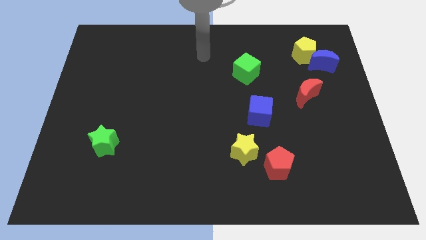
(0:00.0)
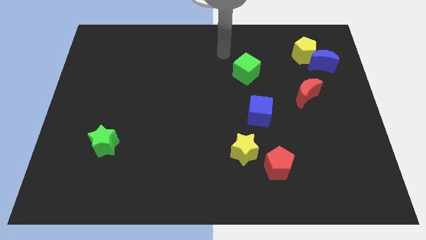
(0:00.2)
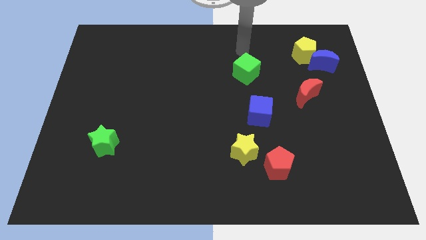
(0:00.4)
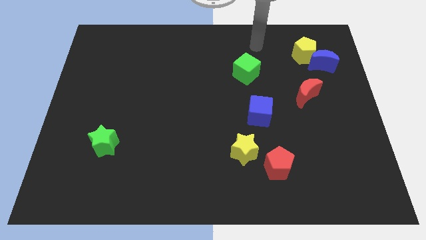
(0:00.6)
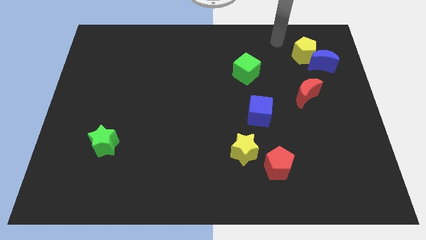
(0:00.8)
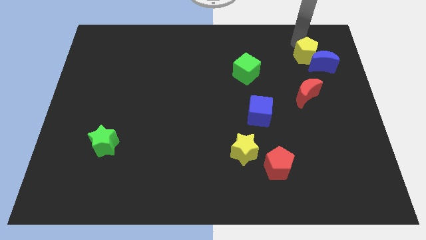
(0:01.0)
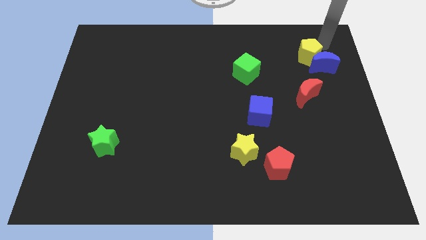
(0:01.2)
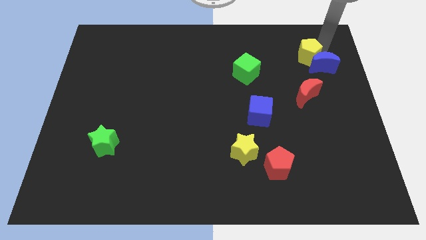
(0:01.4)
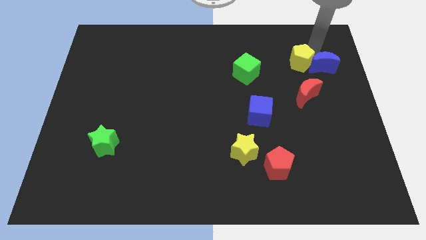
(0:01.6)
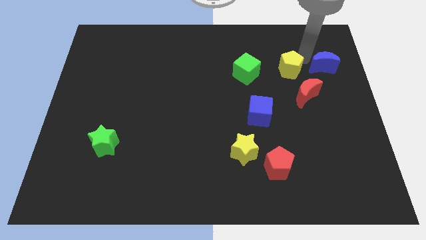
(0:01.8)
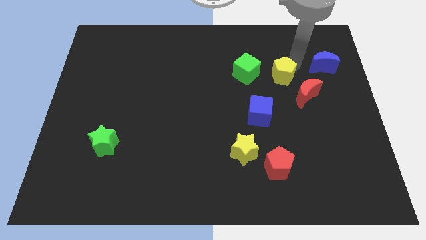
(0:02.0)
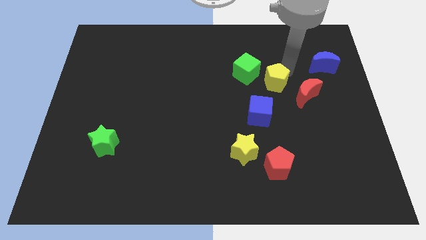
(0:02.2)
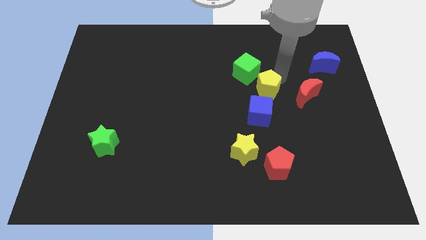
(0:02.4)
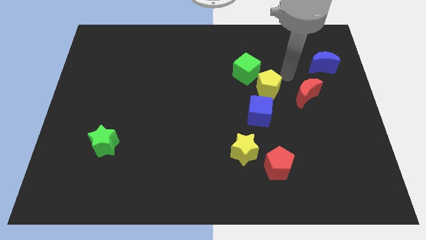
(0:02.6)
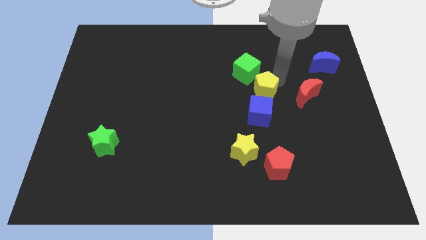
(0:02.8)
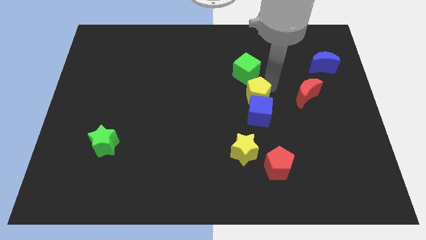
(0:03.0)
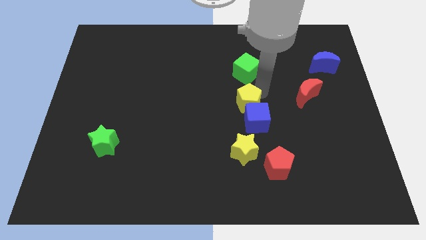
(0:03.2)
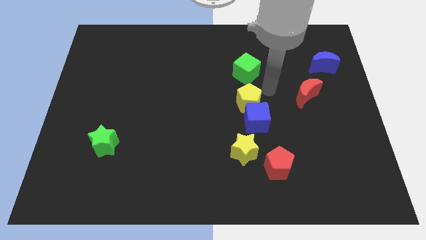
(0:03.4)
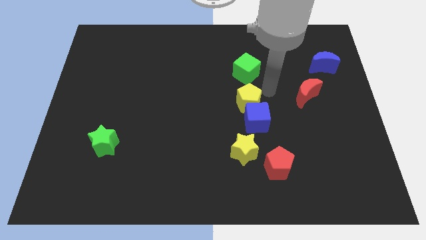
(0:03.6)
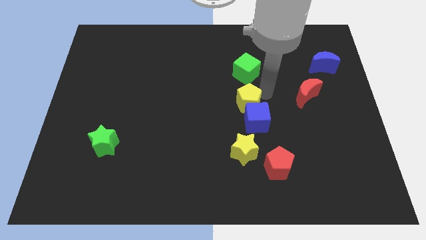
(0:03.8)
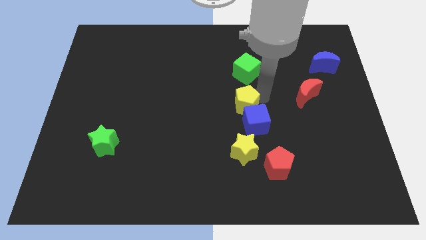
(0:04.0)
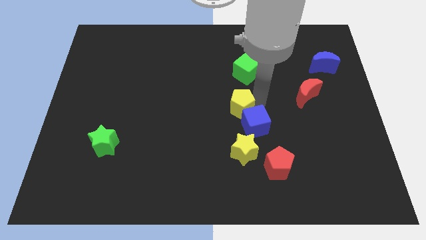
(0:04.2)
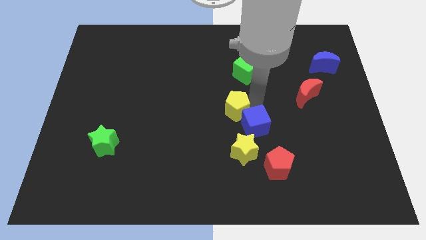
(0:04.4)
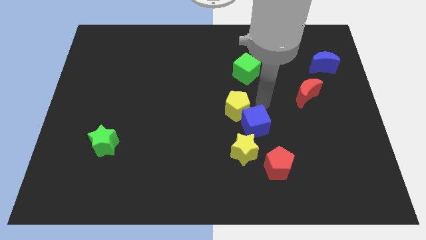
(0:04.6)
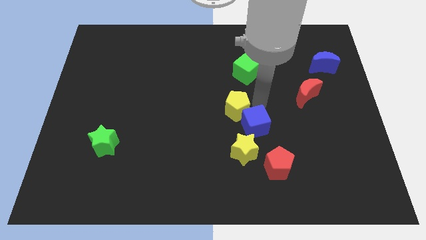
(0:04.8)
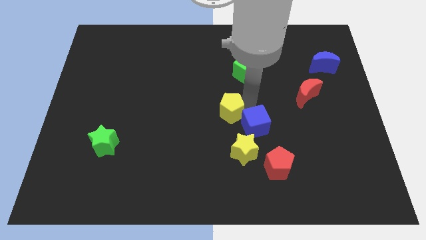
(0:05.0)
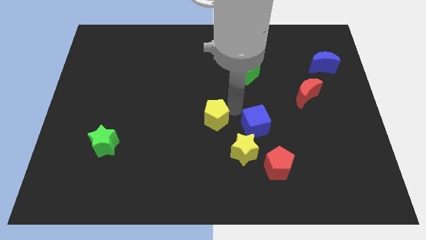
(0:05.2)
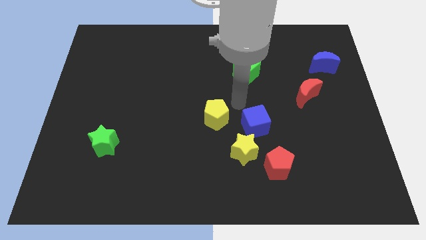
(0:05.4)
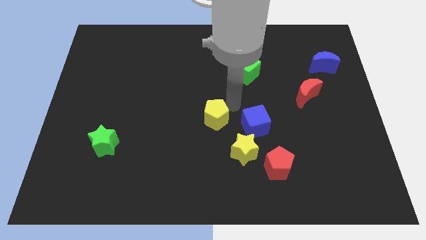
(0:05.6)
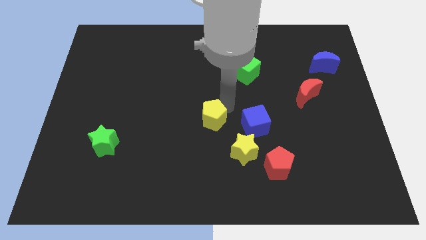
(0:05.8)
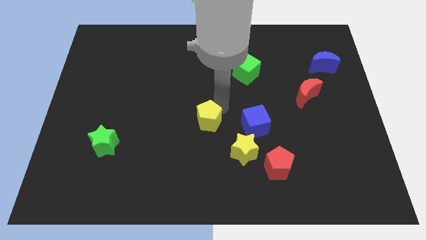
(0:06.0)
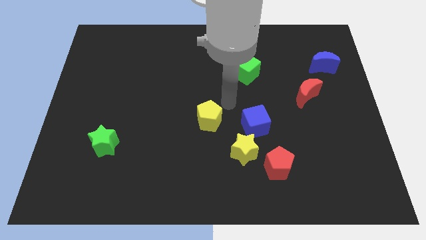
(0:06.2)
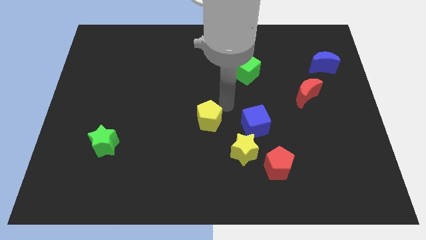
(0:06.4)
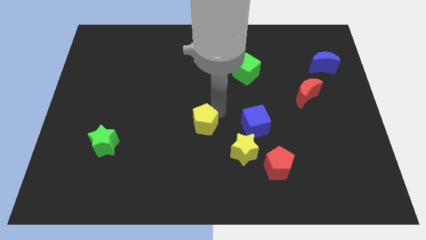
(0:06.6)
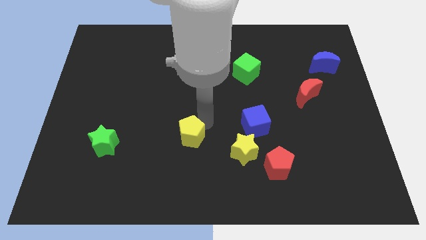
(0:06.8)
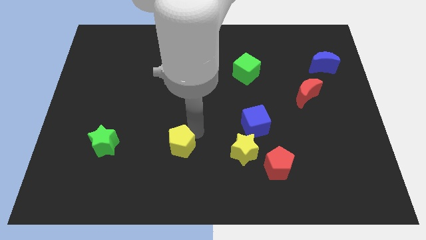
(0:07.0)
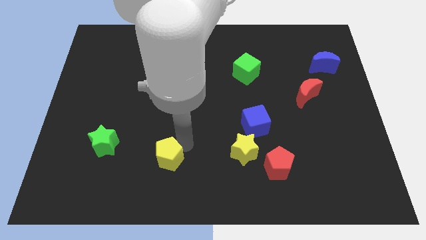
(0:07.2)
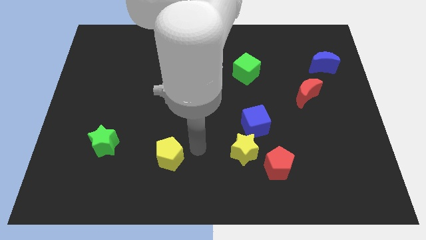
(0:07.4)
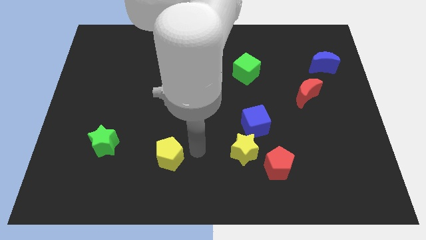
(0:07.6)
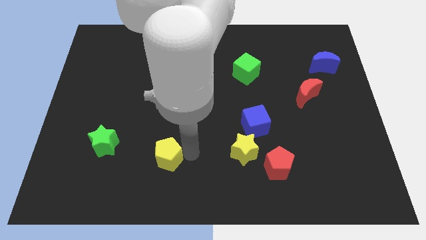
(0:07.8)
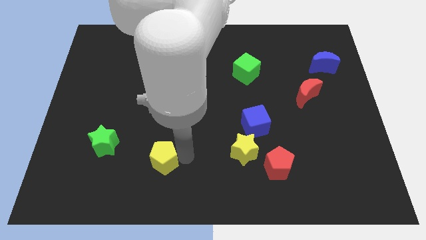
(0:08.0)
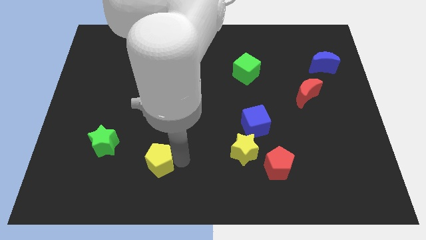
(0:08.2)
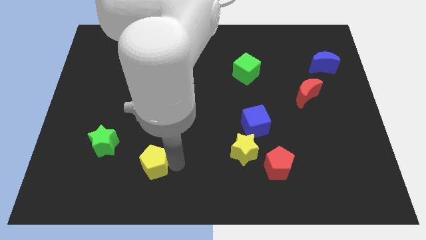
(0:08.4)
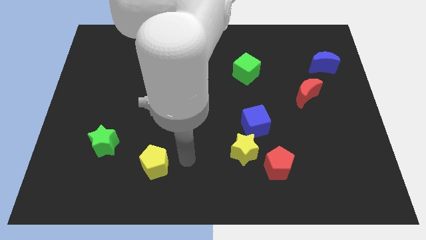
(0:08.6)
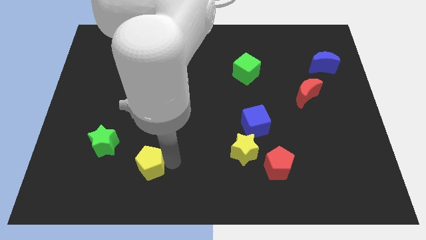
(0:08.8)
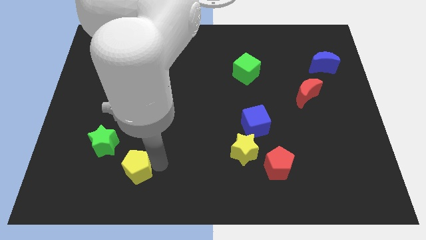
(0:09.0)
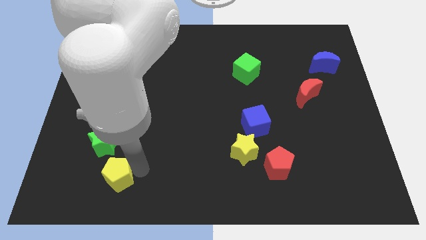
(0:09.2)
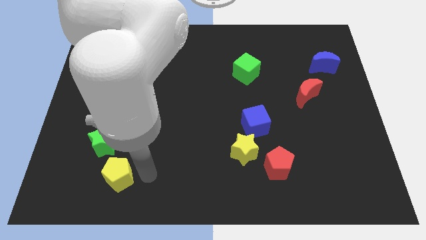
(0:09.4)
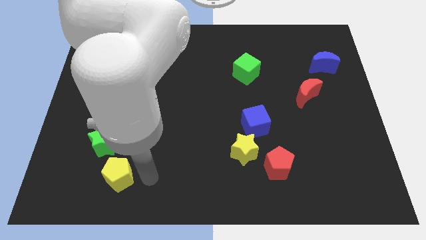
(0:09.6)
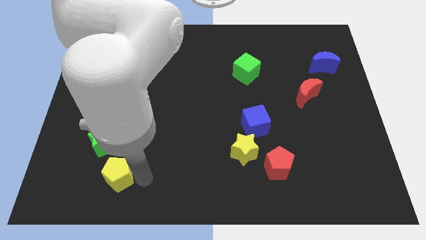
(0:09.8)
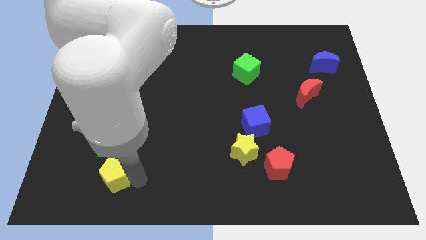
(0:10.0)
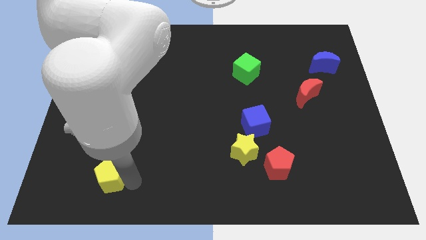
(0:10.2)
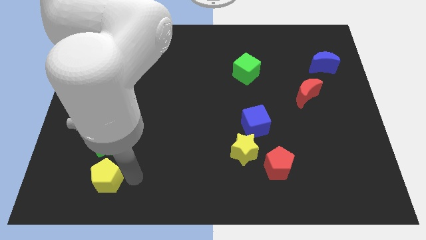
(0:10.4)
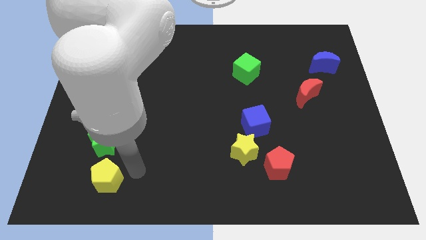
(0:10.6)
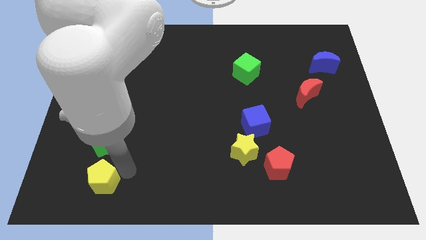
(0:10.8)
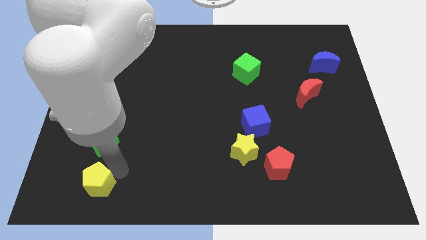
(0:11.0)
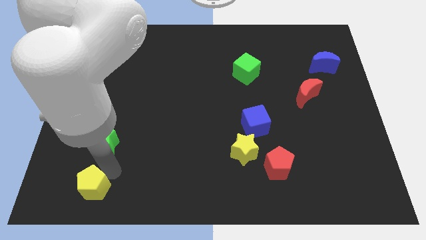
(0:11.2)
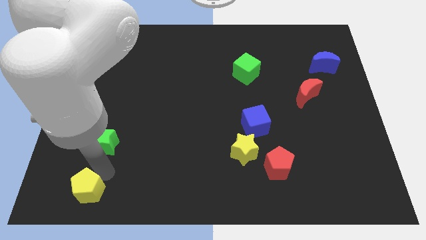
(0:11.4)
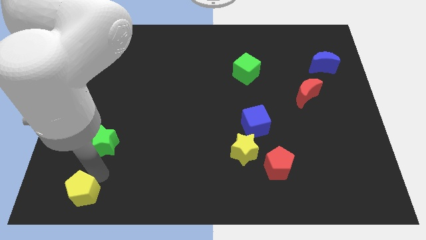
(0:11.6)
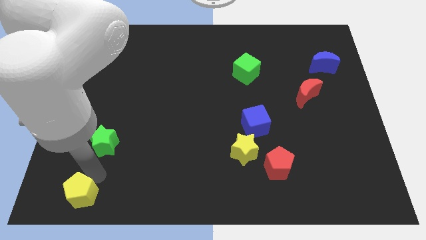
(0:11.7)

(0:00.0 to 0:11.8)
put the yellow pentagon to the bottom left
